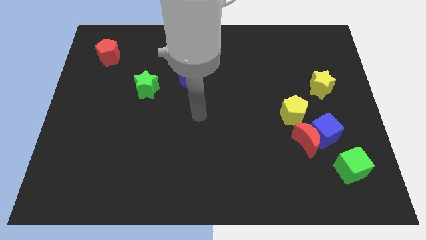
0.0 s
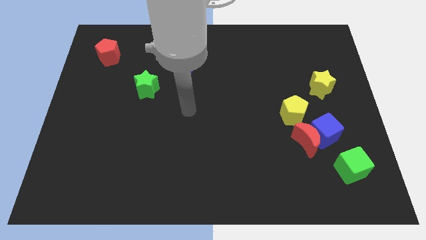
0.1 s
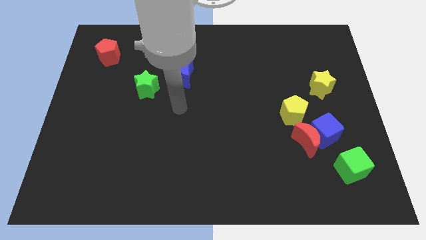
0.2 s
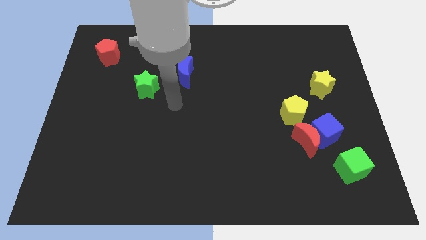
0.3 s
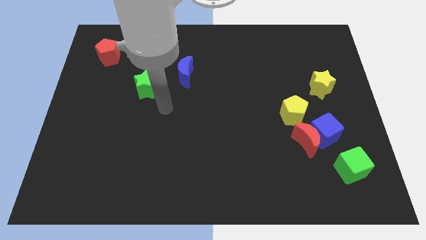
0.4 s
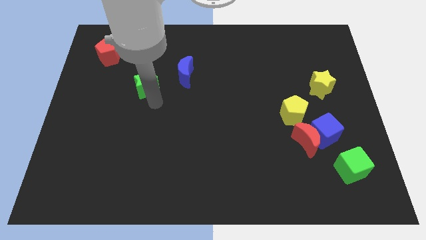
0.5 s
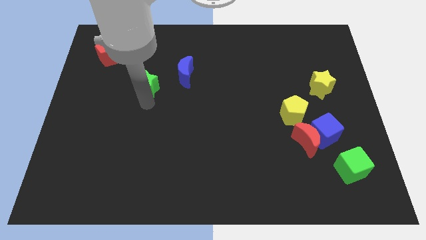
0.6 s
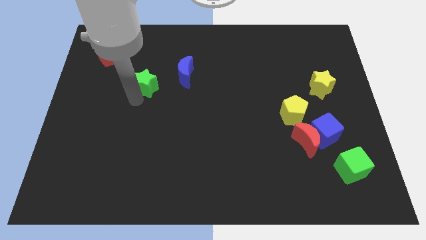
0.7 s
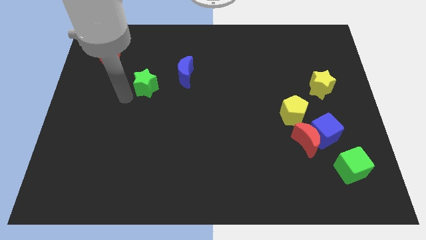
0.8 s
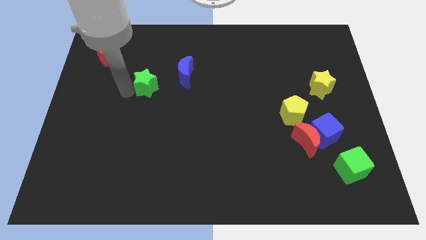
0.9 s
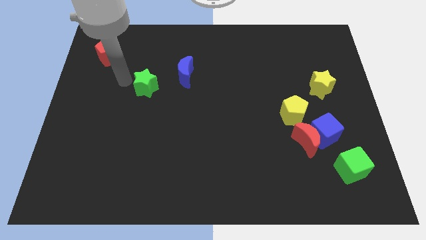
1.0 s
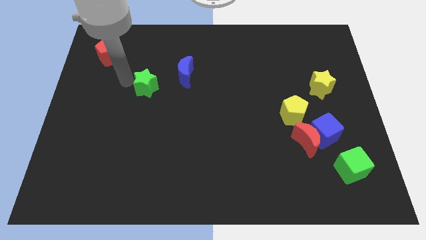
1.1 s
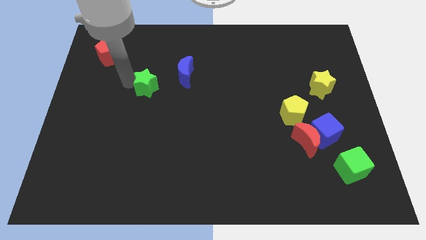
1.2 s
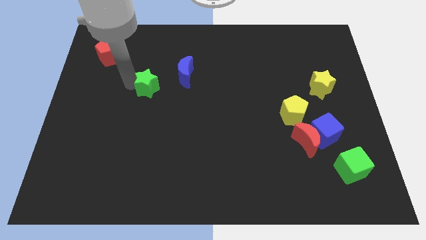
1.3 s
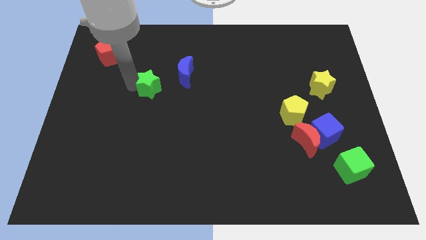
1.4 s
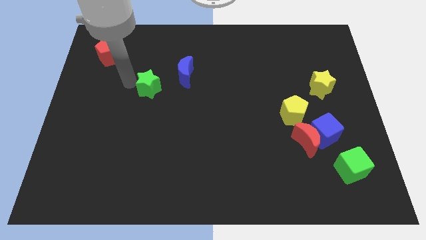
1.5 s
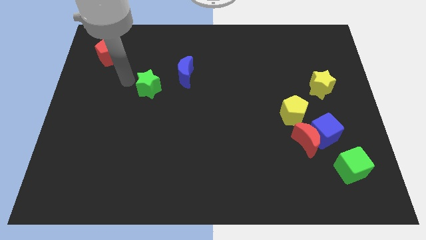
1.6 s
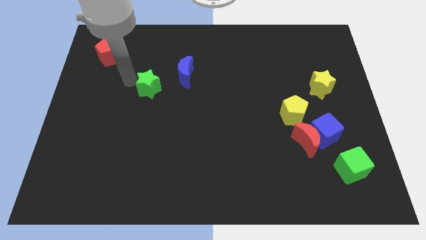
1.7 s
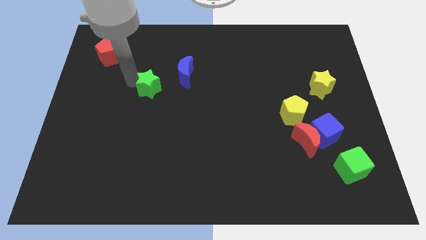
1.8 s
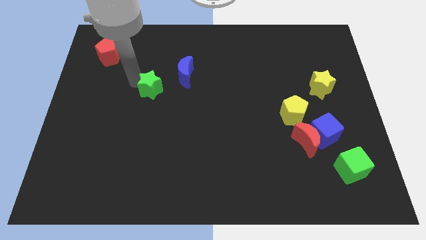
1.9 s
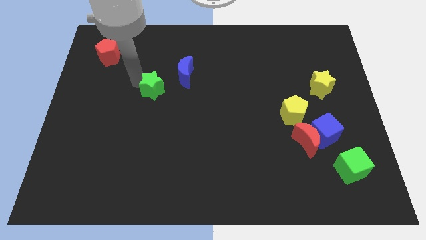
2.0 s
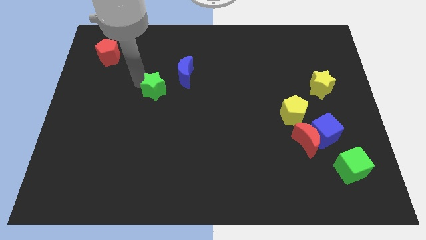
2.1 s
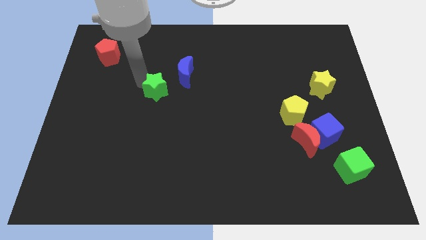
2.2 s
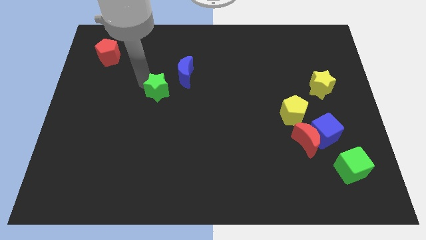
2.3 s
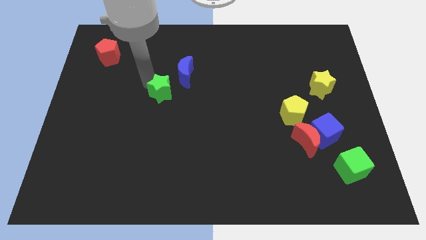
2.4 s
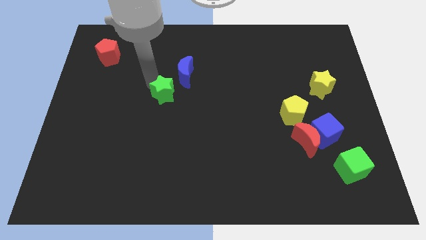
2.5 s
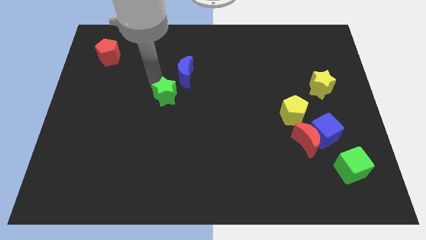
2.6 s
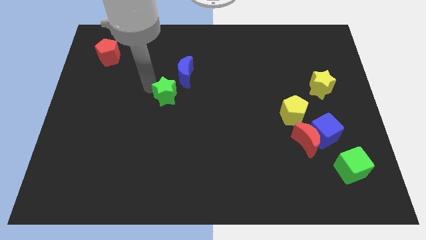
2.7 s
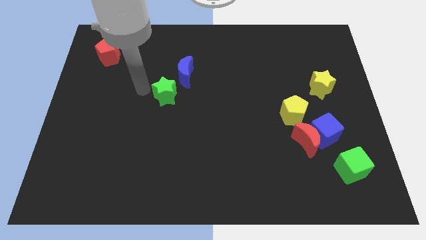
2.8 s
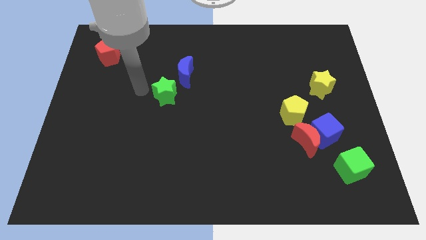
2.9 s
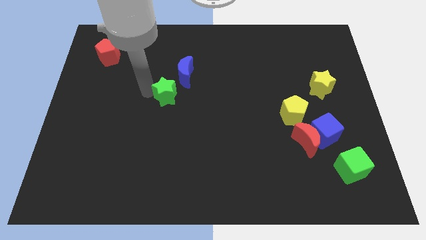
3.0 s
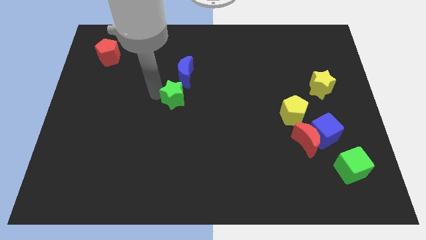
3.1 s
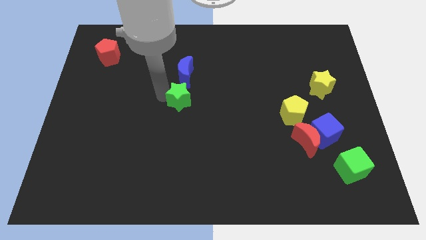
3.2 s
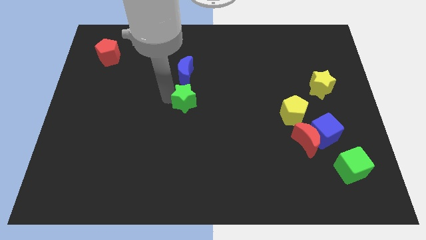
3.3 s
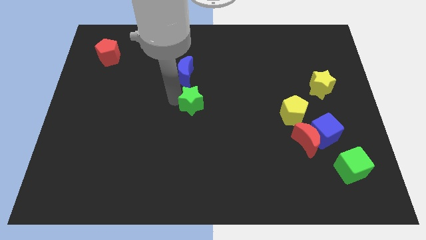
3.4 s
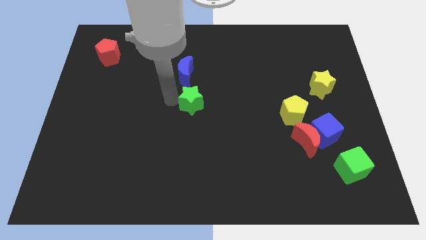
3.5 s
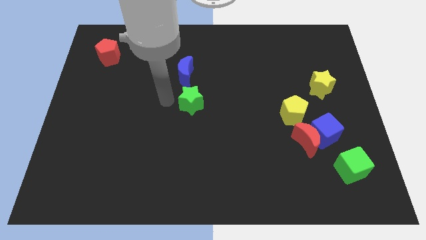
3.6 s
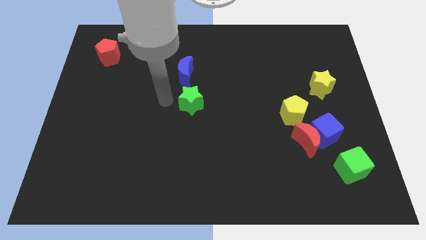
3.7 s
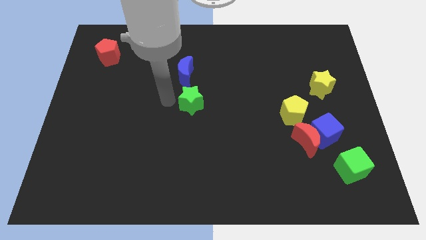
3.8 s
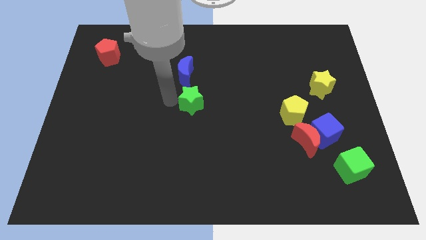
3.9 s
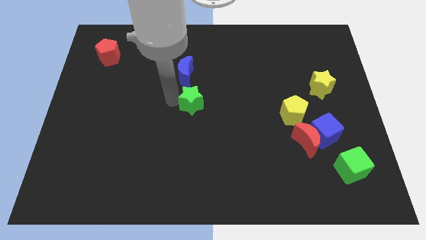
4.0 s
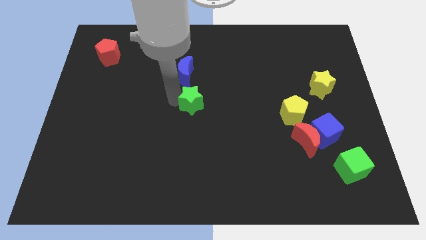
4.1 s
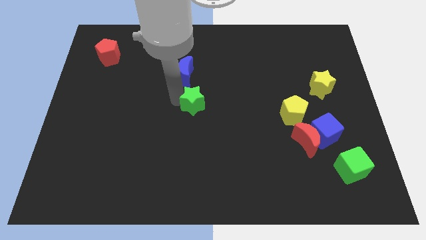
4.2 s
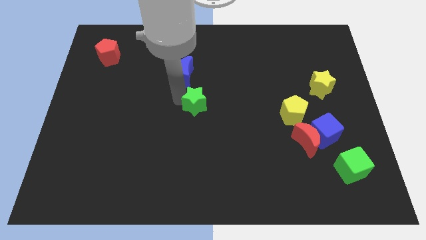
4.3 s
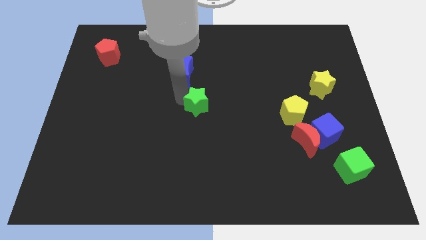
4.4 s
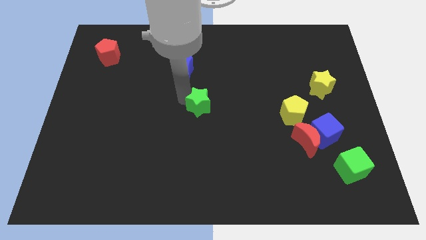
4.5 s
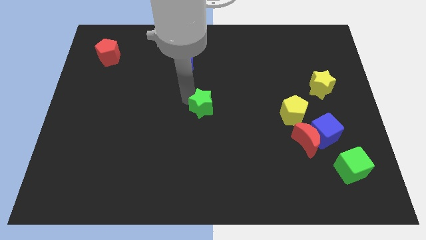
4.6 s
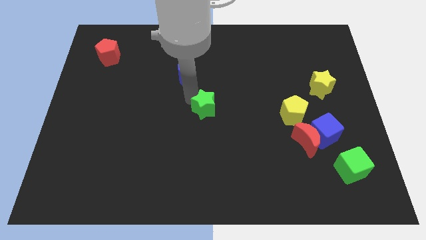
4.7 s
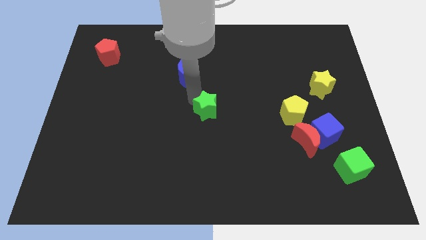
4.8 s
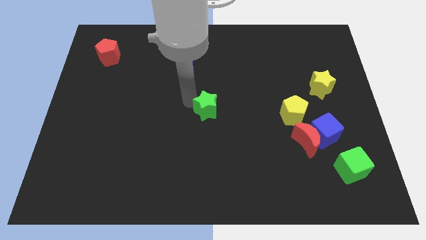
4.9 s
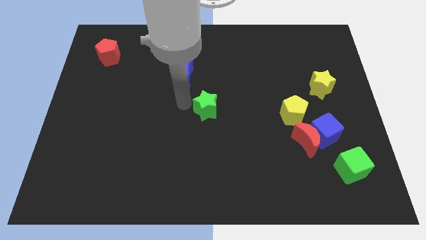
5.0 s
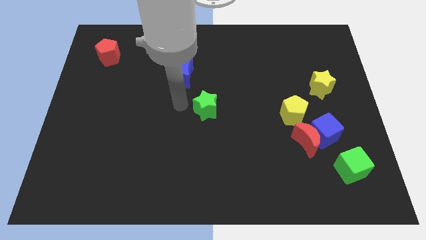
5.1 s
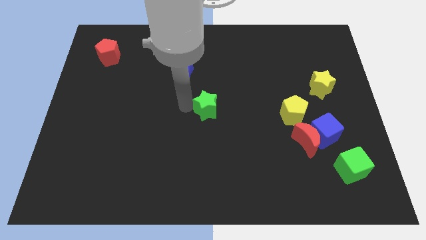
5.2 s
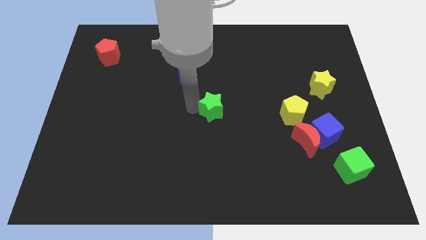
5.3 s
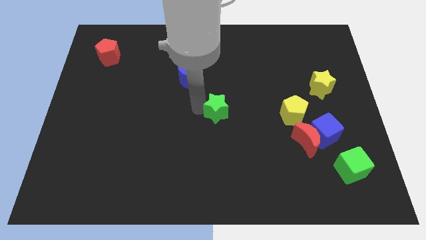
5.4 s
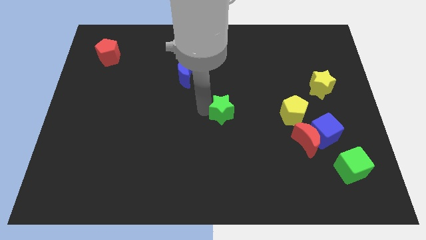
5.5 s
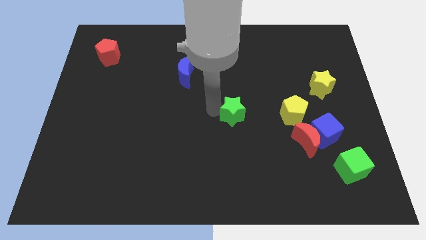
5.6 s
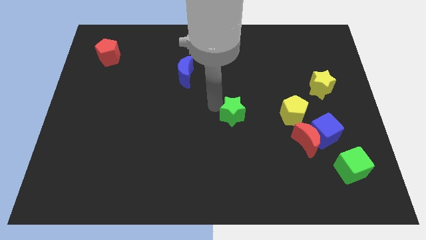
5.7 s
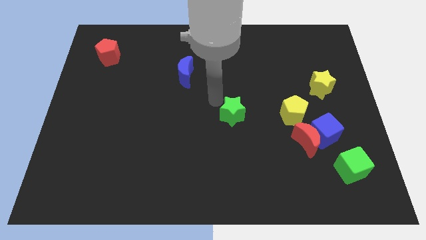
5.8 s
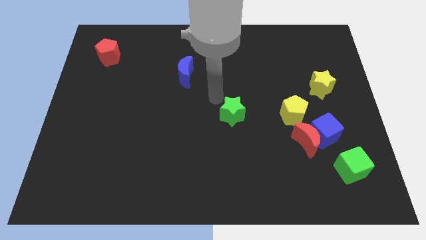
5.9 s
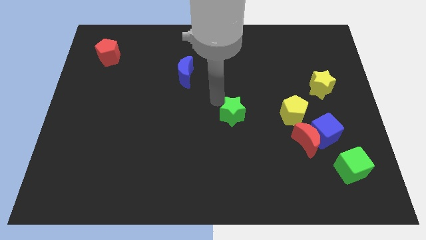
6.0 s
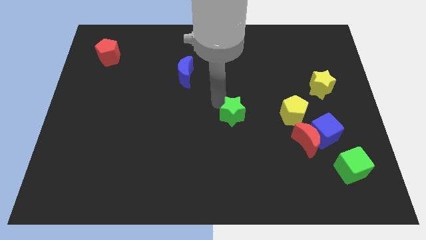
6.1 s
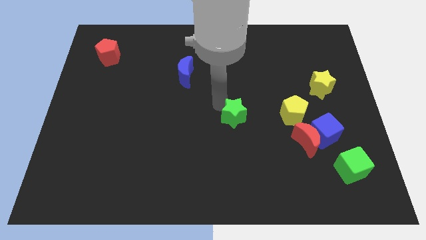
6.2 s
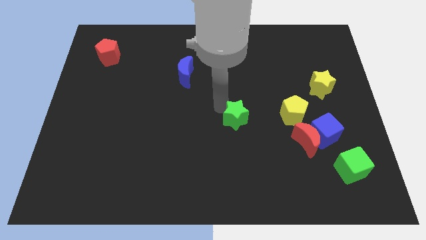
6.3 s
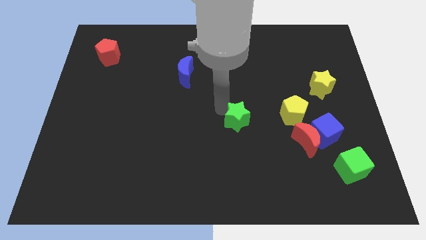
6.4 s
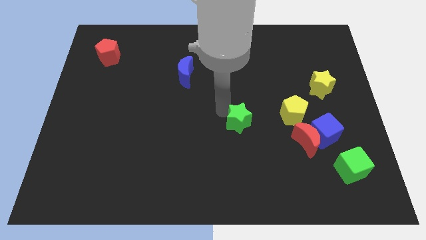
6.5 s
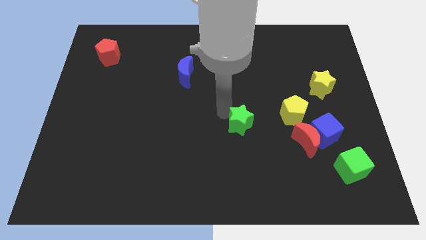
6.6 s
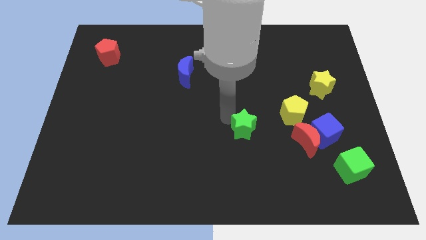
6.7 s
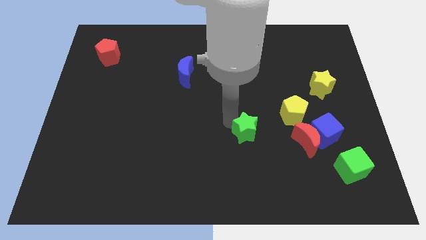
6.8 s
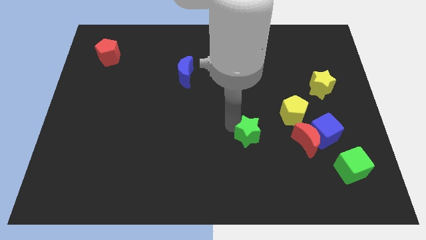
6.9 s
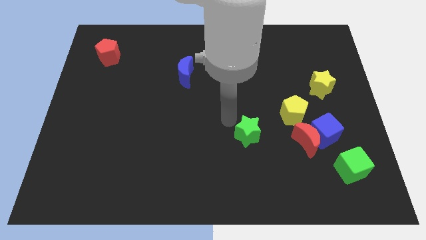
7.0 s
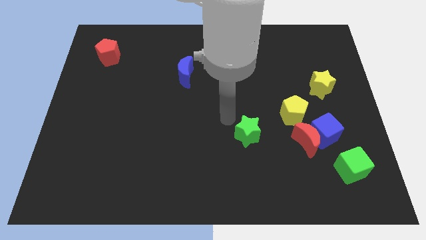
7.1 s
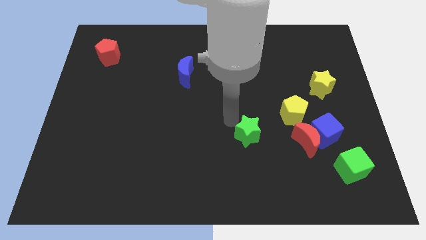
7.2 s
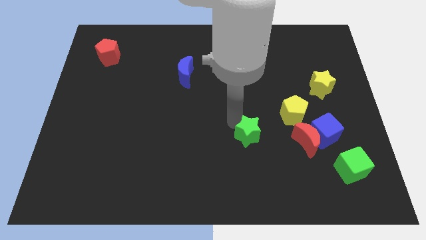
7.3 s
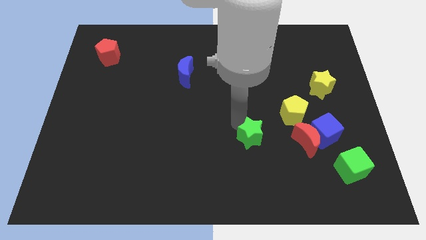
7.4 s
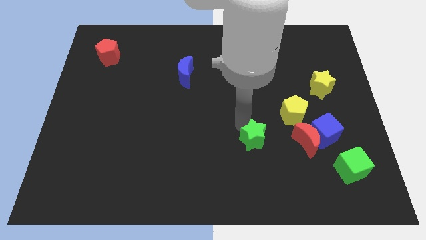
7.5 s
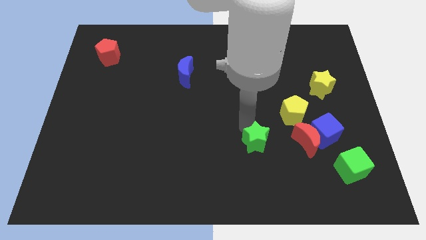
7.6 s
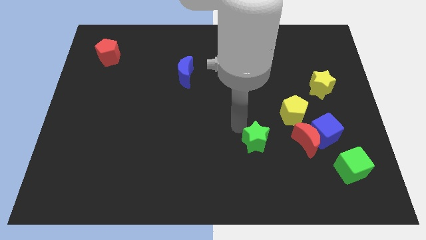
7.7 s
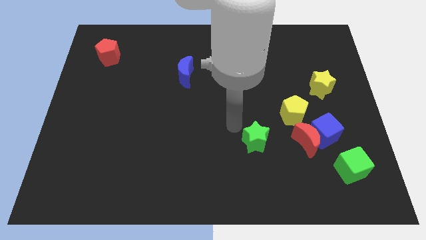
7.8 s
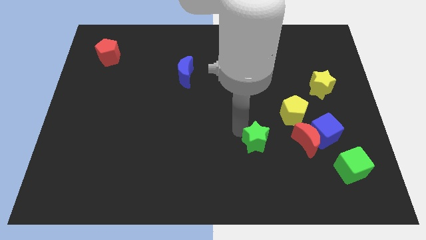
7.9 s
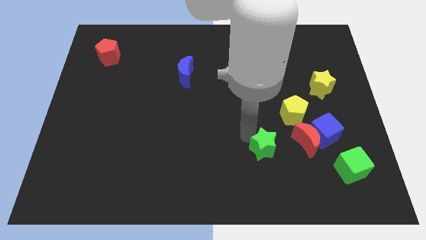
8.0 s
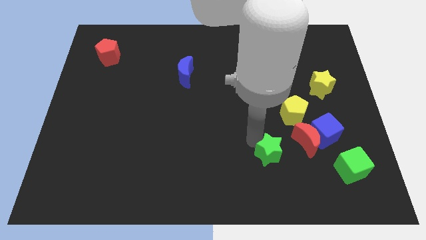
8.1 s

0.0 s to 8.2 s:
move the green star diagonally down and to the left of the red moon
